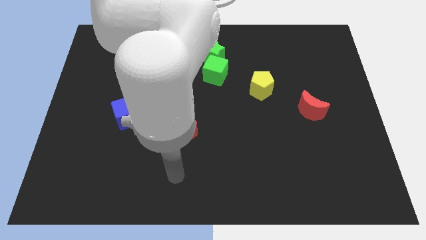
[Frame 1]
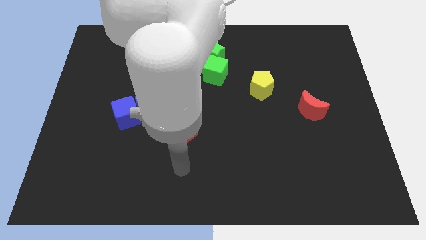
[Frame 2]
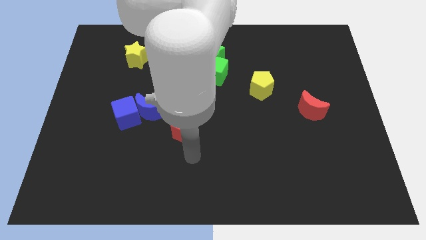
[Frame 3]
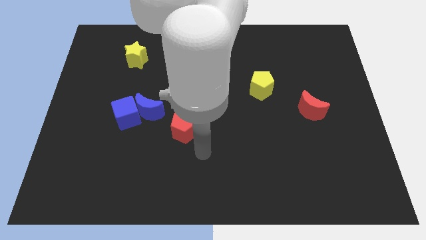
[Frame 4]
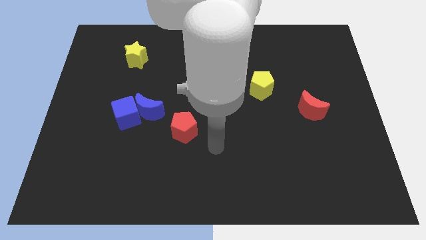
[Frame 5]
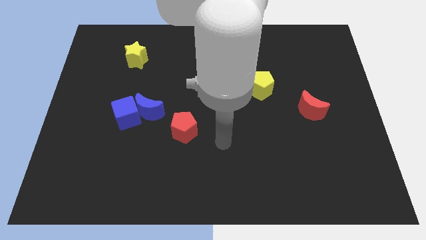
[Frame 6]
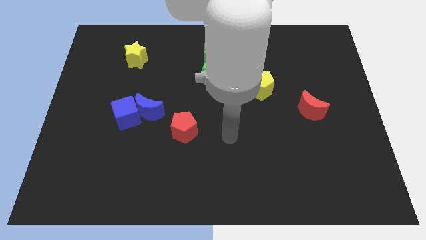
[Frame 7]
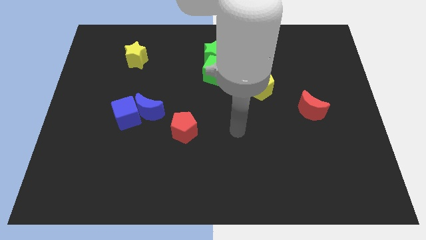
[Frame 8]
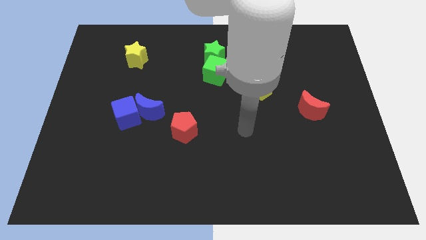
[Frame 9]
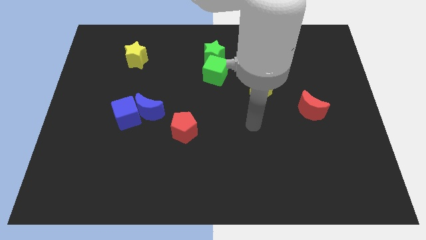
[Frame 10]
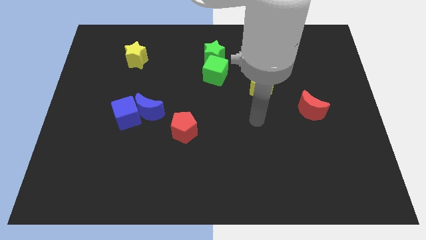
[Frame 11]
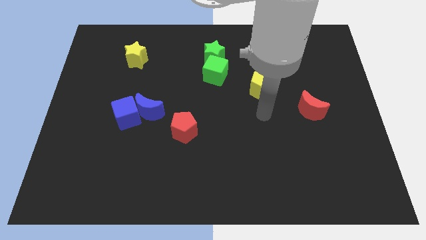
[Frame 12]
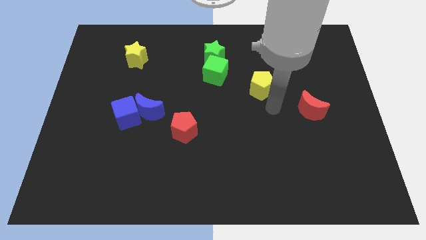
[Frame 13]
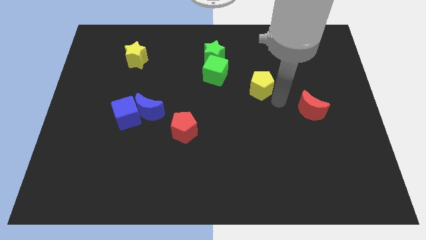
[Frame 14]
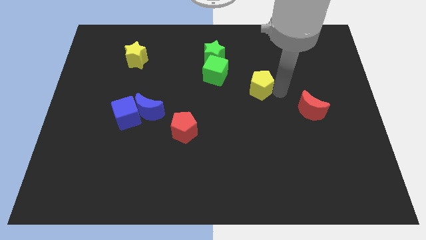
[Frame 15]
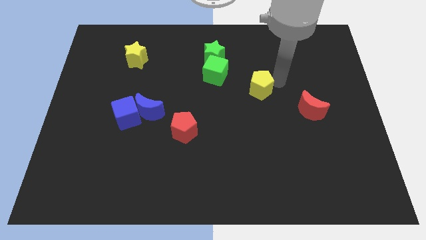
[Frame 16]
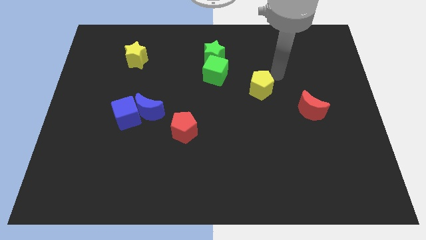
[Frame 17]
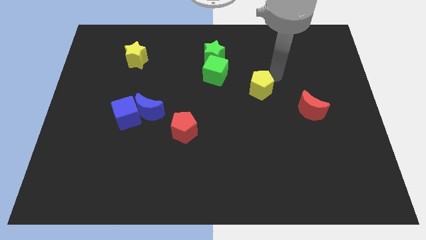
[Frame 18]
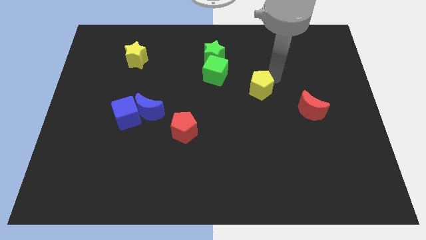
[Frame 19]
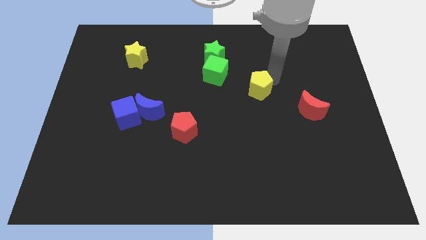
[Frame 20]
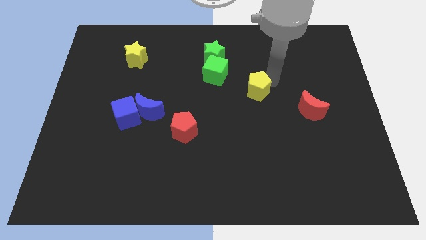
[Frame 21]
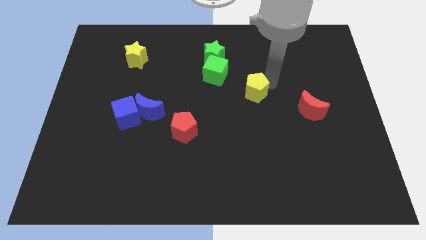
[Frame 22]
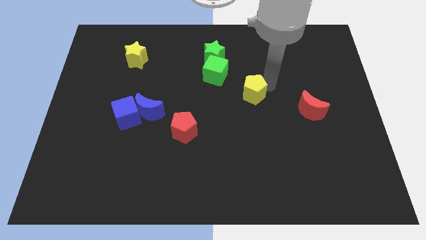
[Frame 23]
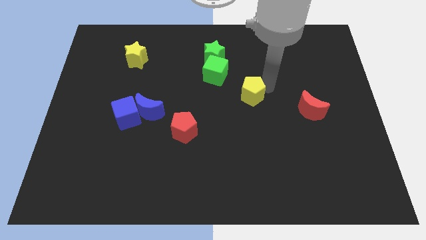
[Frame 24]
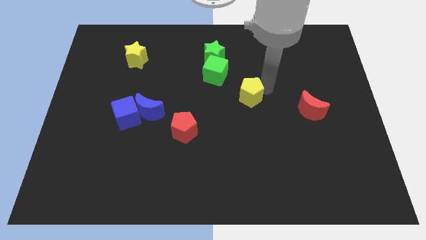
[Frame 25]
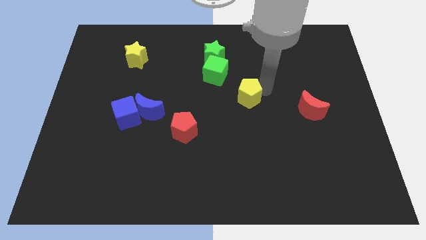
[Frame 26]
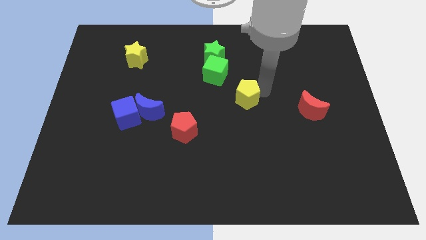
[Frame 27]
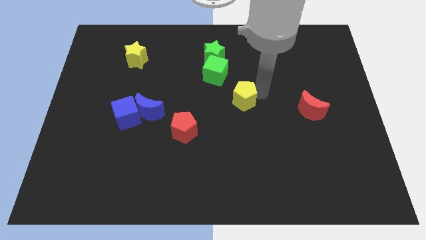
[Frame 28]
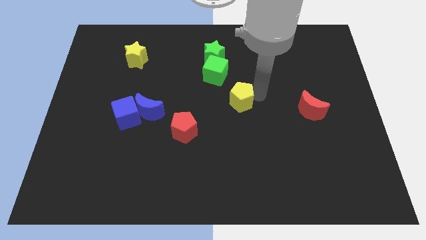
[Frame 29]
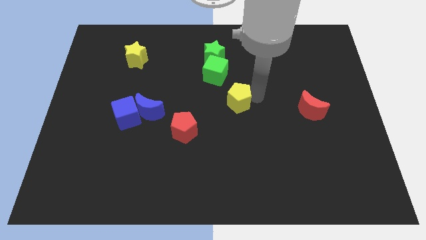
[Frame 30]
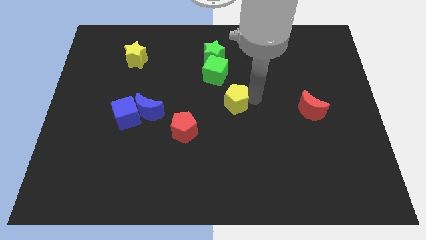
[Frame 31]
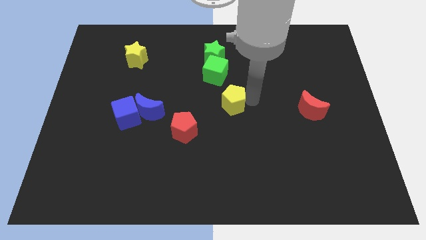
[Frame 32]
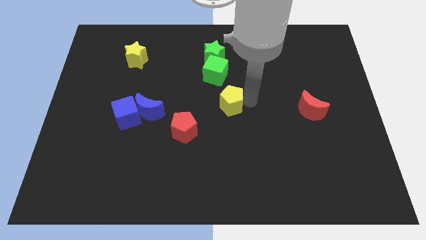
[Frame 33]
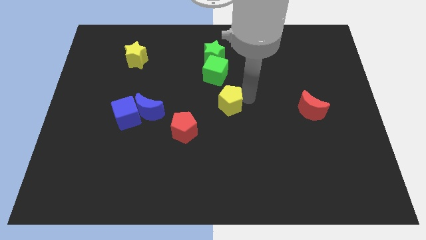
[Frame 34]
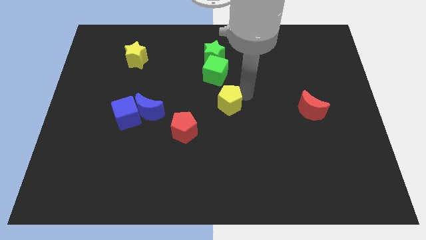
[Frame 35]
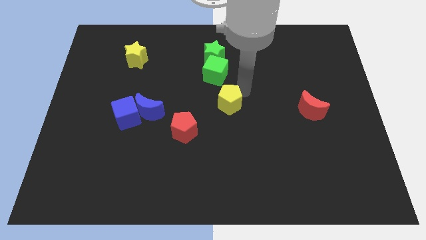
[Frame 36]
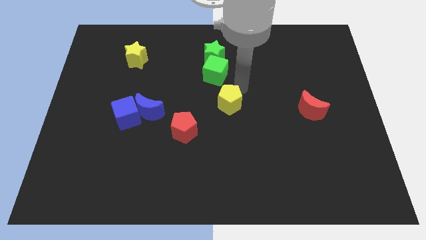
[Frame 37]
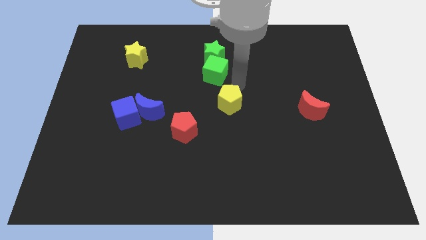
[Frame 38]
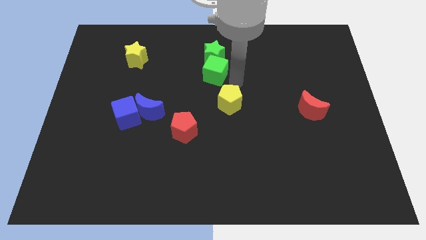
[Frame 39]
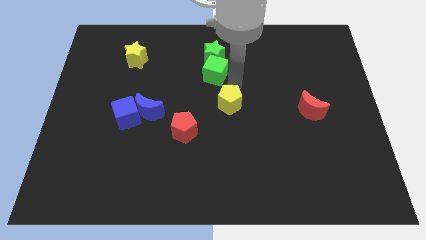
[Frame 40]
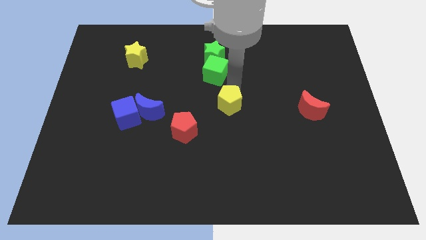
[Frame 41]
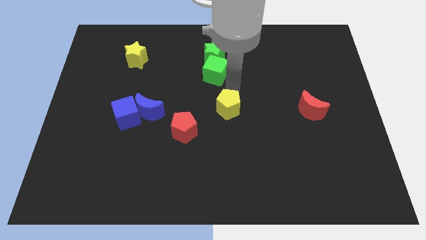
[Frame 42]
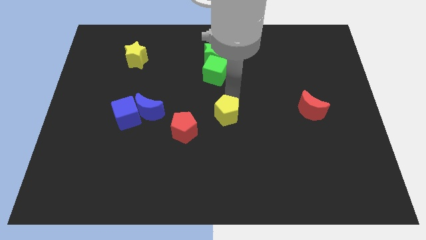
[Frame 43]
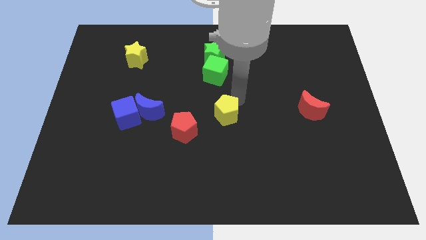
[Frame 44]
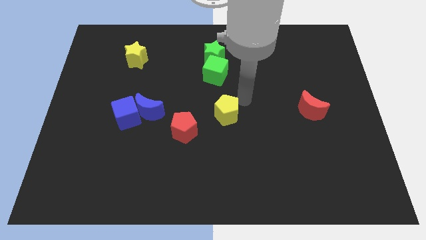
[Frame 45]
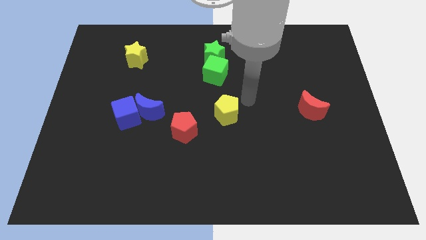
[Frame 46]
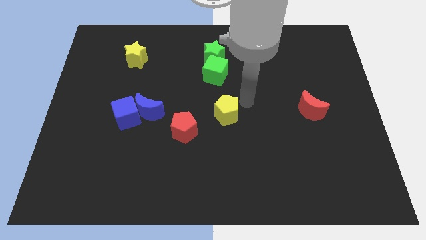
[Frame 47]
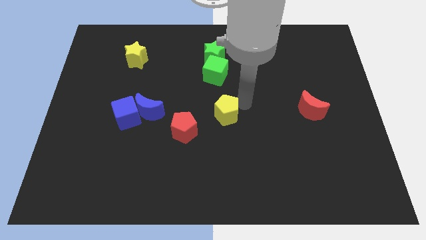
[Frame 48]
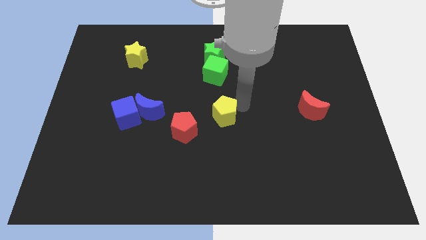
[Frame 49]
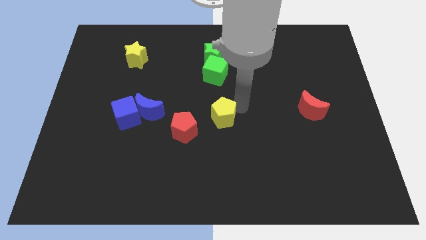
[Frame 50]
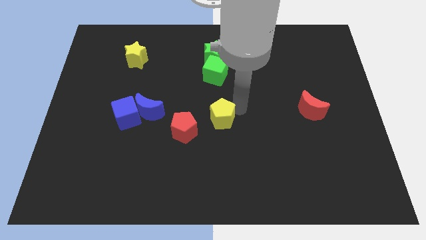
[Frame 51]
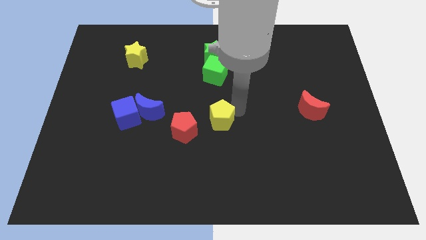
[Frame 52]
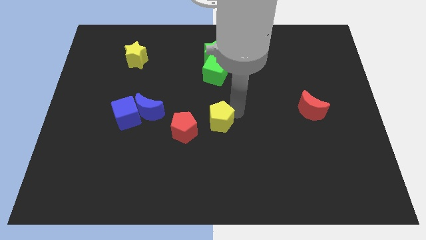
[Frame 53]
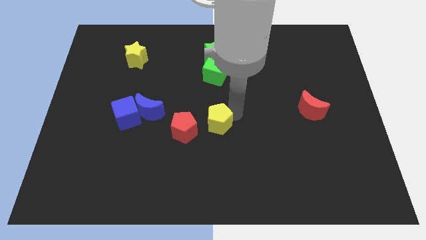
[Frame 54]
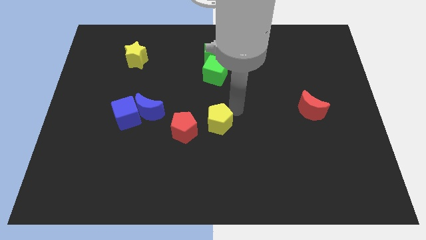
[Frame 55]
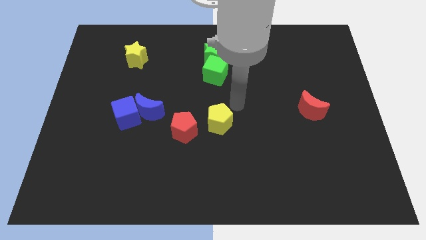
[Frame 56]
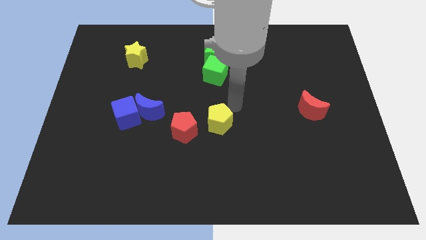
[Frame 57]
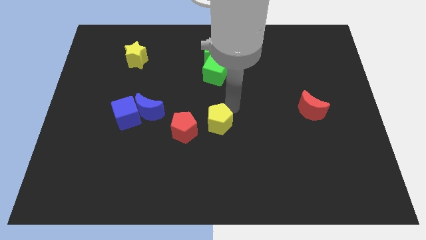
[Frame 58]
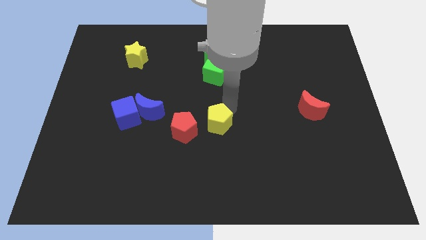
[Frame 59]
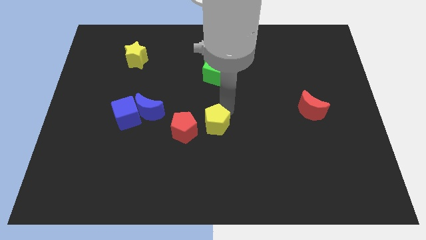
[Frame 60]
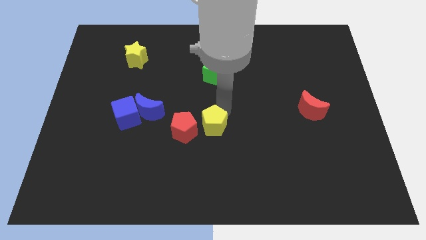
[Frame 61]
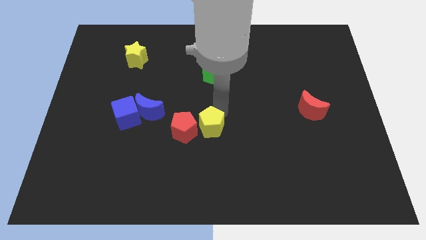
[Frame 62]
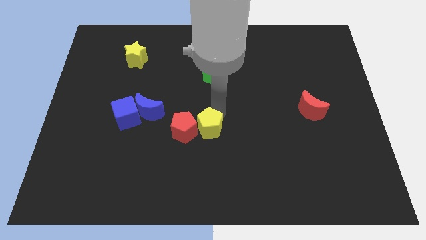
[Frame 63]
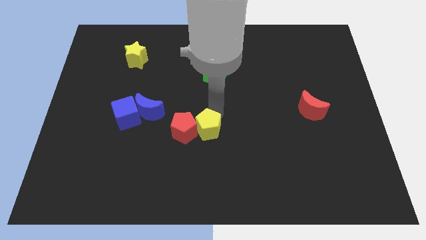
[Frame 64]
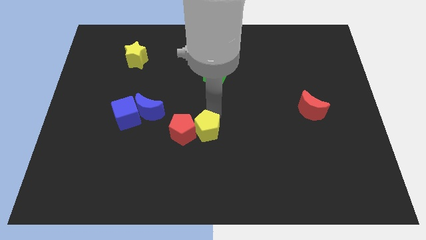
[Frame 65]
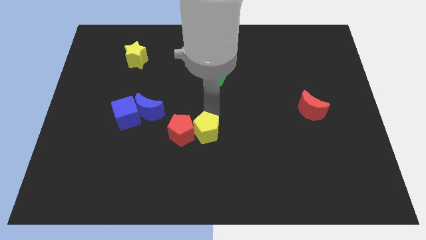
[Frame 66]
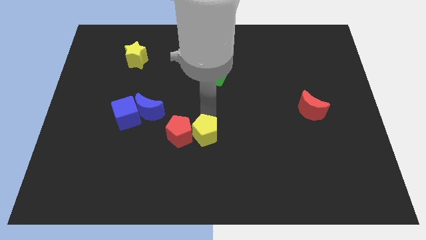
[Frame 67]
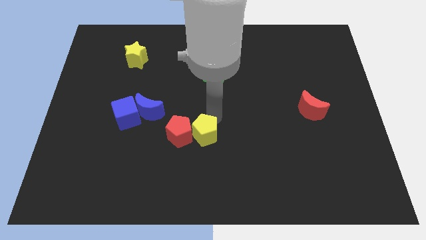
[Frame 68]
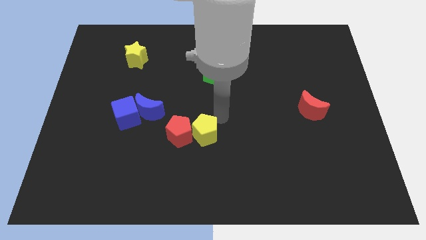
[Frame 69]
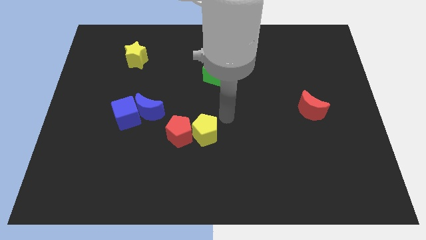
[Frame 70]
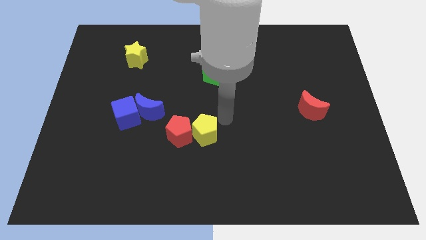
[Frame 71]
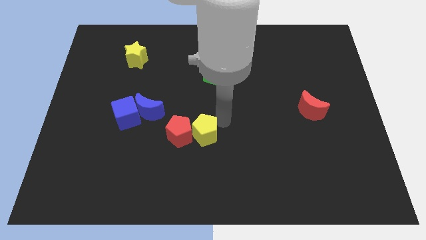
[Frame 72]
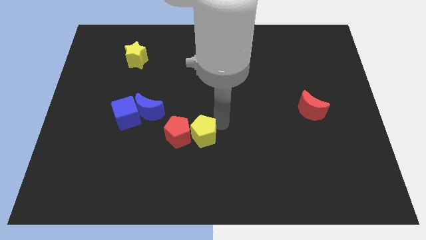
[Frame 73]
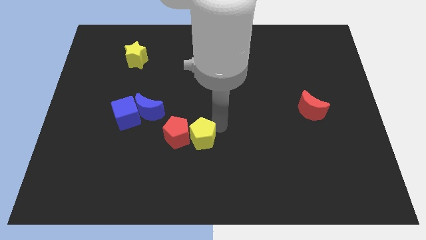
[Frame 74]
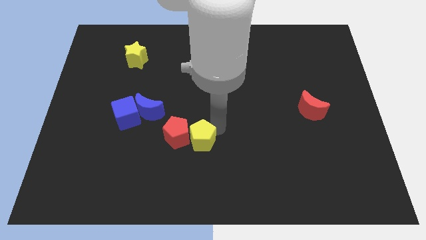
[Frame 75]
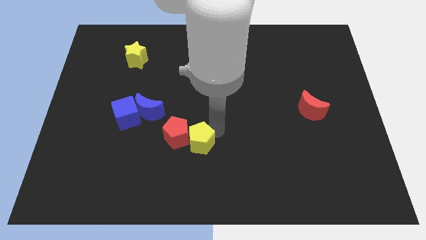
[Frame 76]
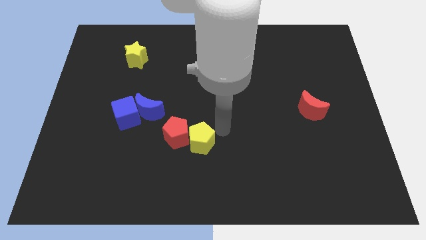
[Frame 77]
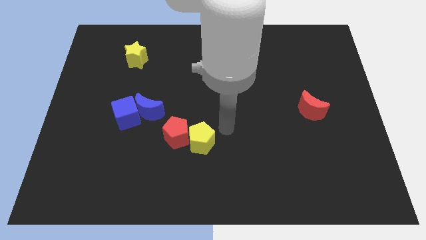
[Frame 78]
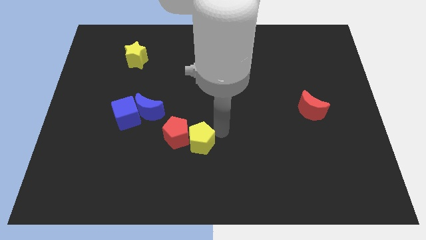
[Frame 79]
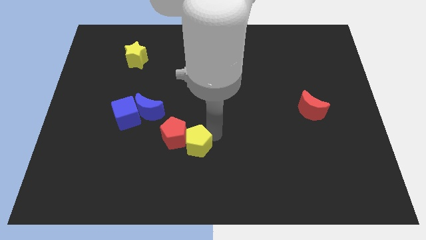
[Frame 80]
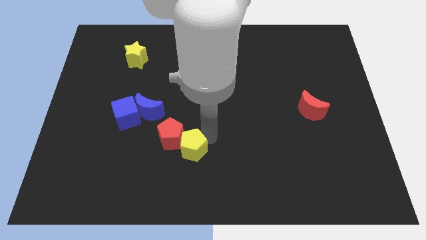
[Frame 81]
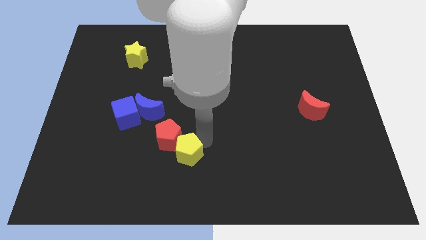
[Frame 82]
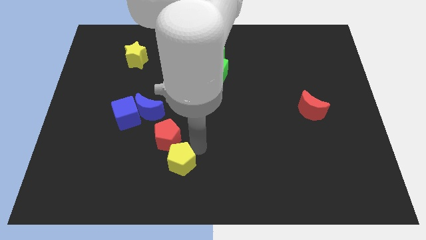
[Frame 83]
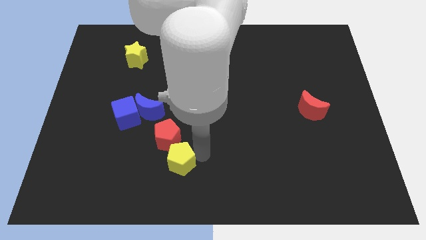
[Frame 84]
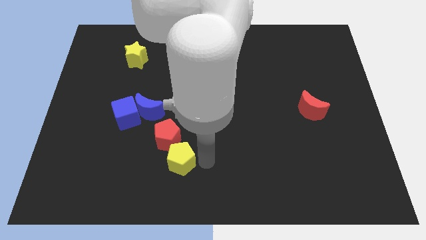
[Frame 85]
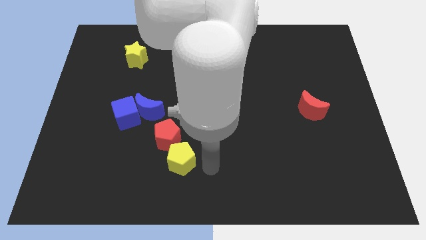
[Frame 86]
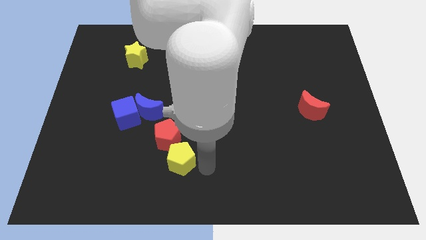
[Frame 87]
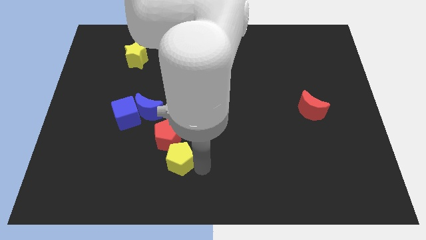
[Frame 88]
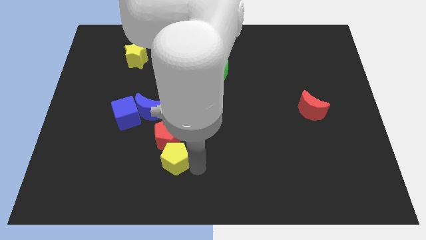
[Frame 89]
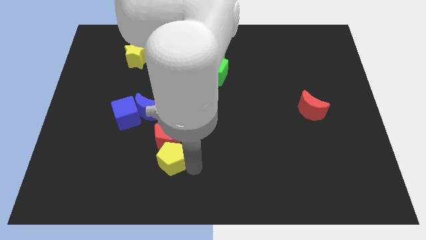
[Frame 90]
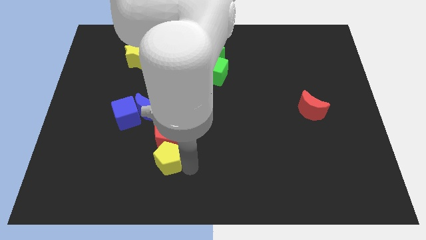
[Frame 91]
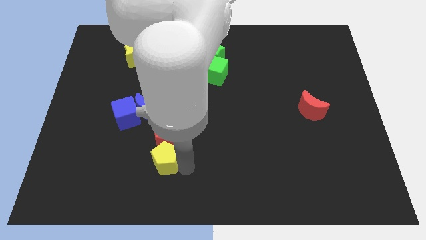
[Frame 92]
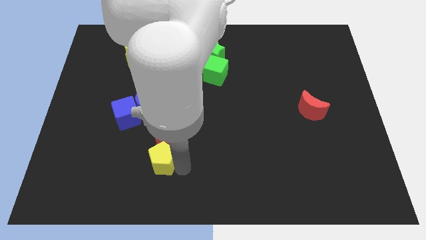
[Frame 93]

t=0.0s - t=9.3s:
put the yellow pentagon below the blue moon
